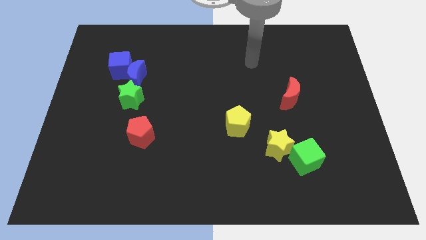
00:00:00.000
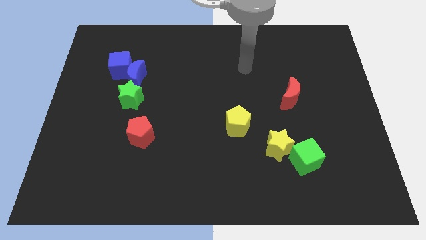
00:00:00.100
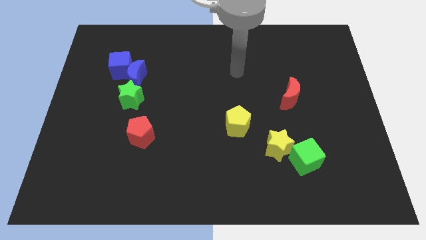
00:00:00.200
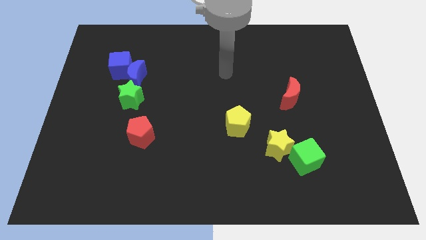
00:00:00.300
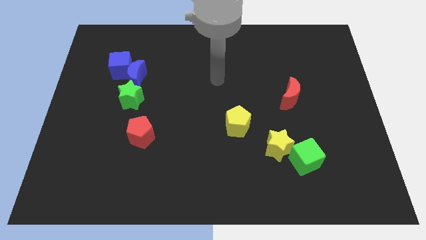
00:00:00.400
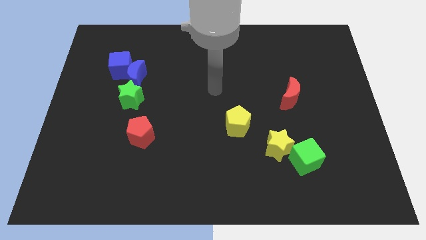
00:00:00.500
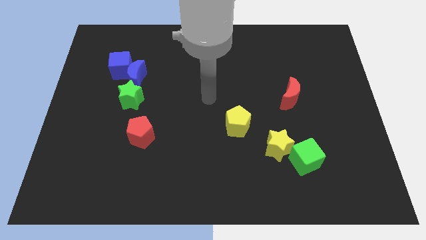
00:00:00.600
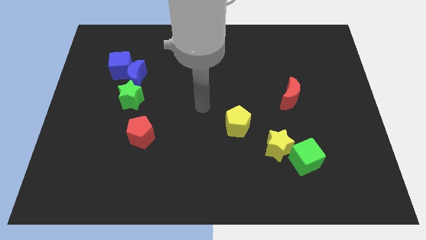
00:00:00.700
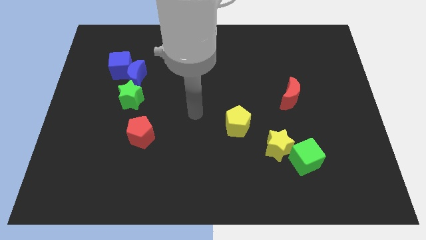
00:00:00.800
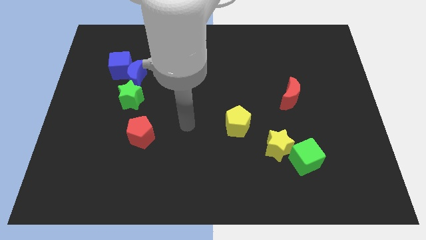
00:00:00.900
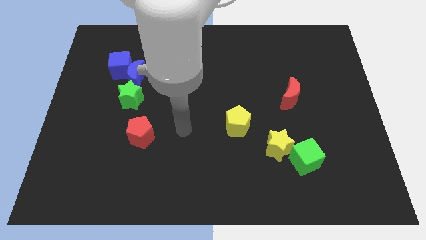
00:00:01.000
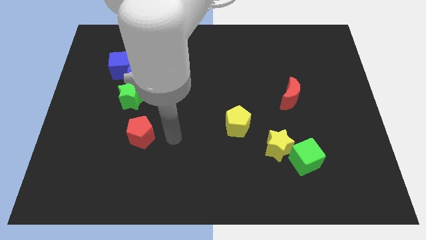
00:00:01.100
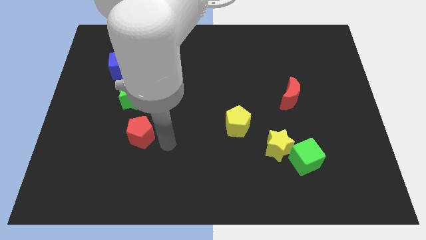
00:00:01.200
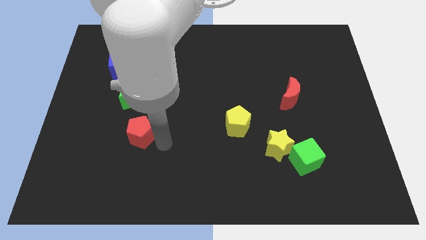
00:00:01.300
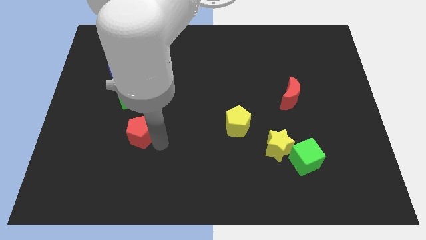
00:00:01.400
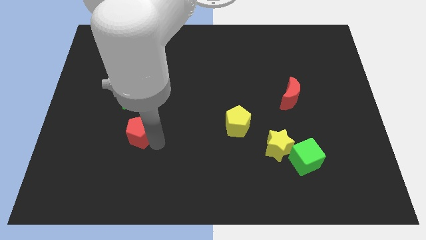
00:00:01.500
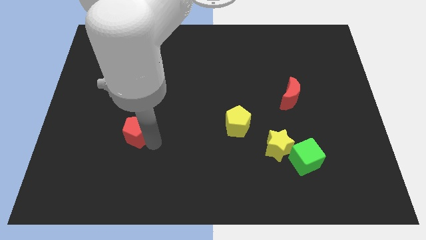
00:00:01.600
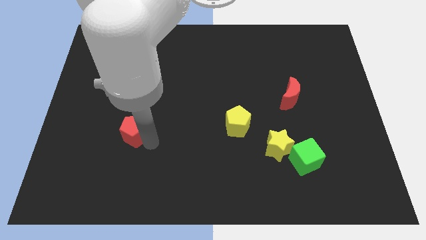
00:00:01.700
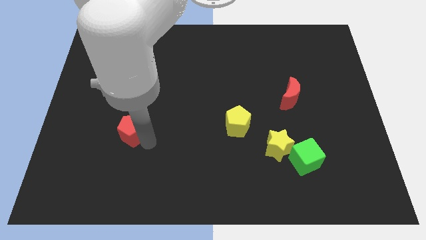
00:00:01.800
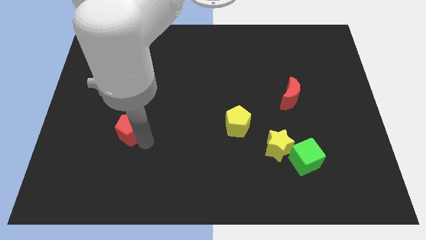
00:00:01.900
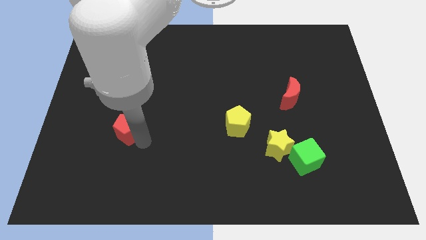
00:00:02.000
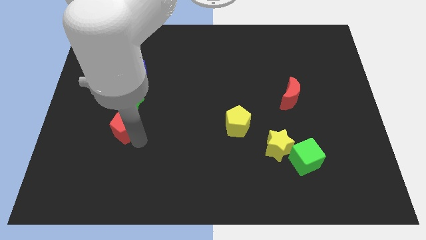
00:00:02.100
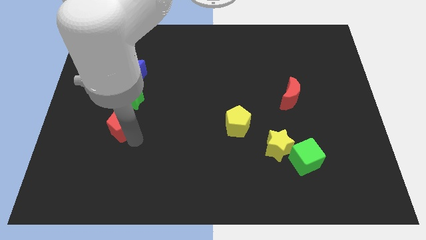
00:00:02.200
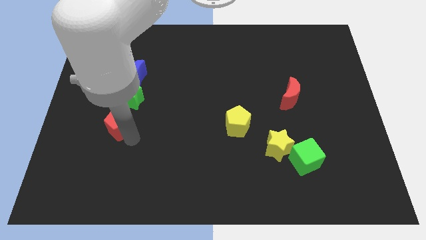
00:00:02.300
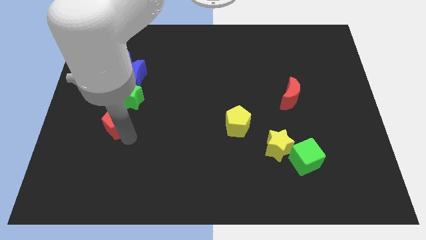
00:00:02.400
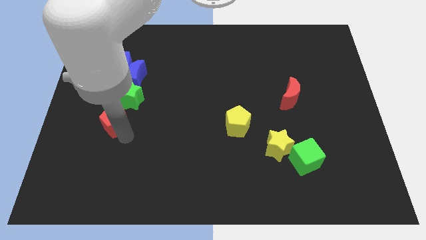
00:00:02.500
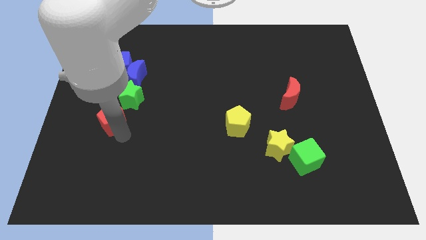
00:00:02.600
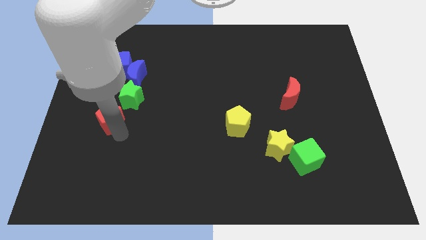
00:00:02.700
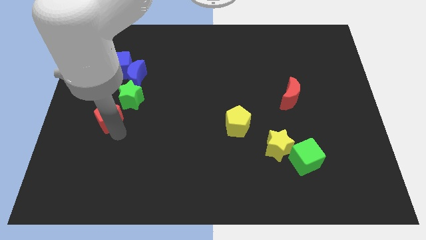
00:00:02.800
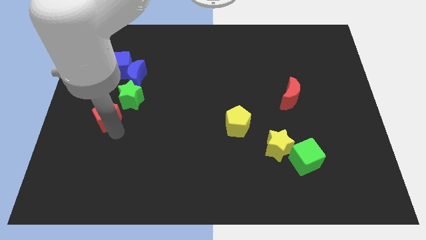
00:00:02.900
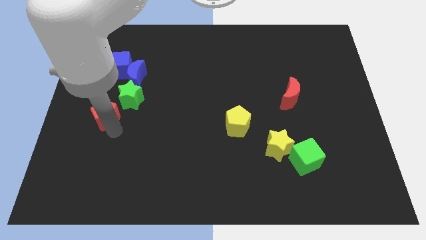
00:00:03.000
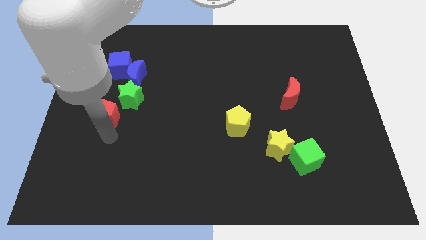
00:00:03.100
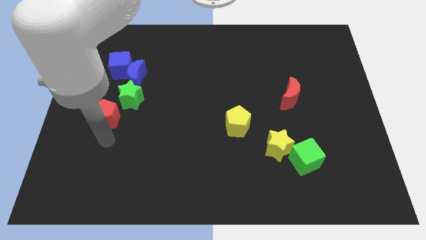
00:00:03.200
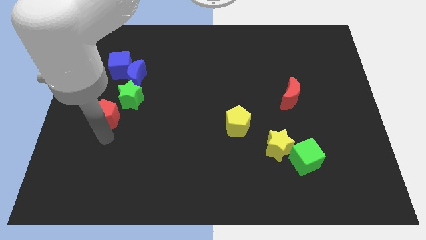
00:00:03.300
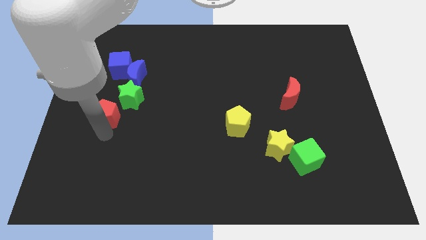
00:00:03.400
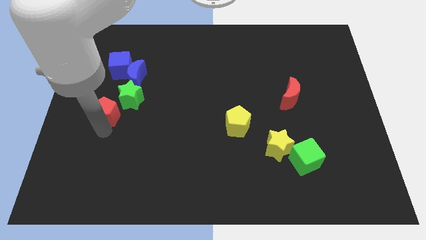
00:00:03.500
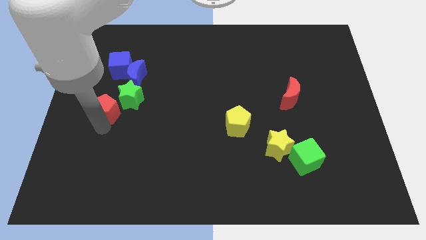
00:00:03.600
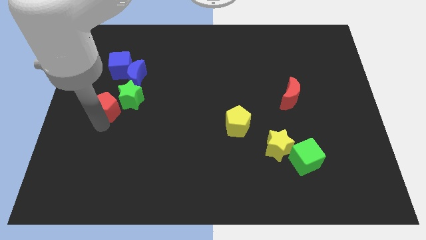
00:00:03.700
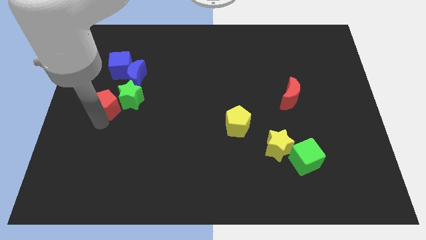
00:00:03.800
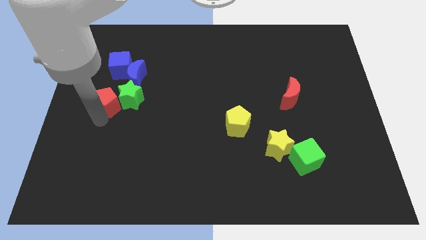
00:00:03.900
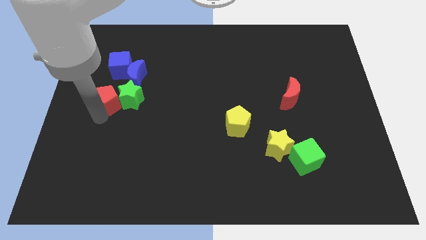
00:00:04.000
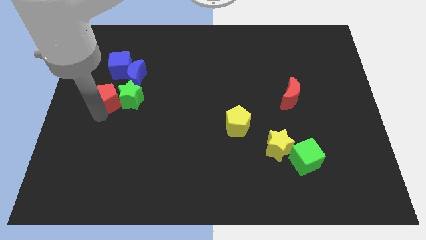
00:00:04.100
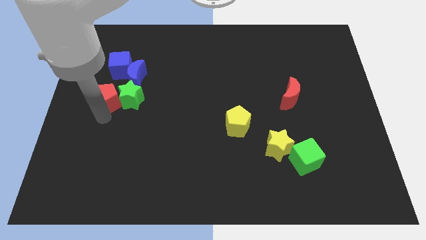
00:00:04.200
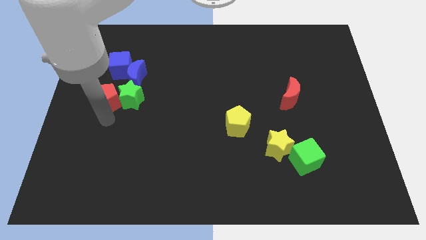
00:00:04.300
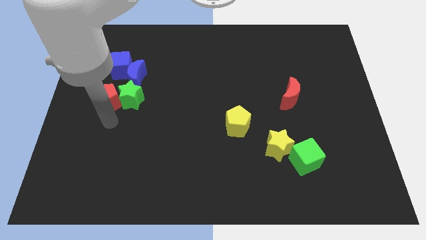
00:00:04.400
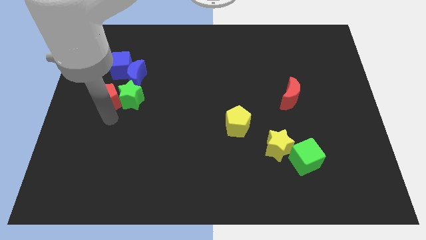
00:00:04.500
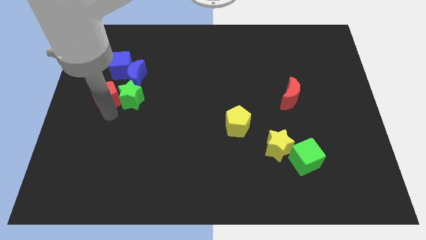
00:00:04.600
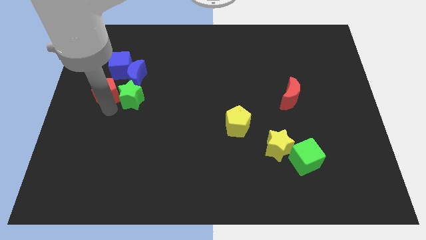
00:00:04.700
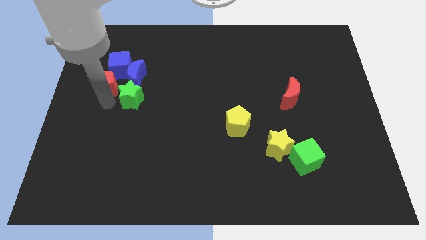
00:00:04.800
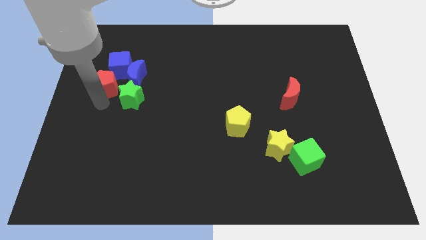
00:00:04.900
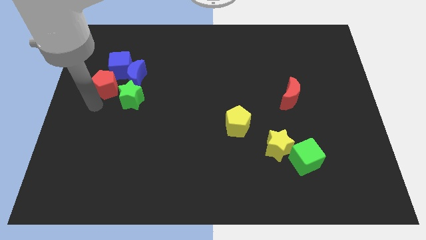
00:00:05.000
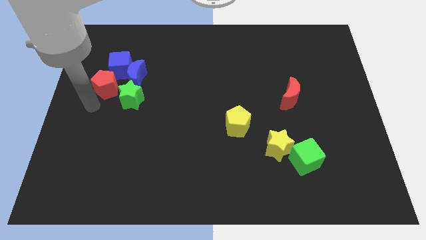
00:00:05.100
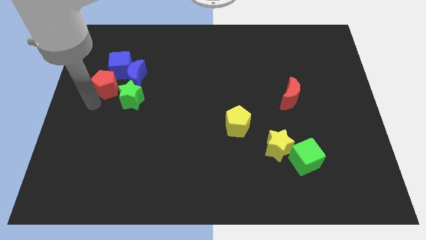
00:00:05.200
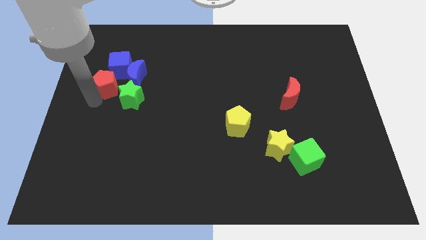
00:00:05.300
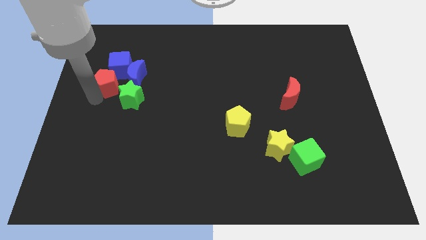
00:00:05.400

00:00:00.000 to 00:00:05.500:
move the red pentagon to the blue cube

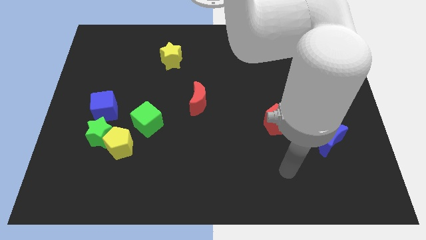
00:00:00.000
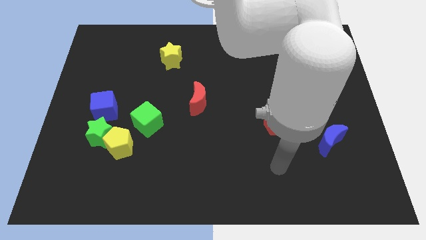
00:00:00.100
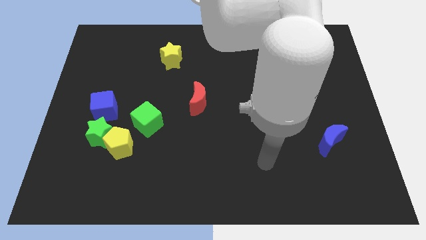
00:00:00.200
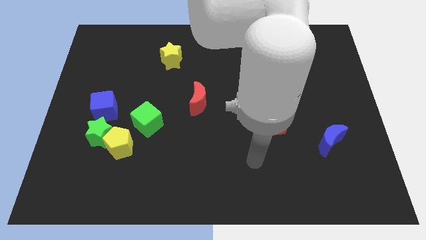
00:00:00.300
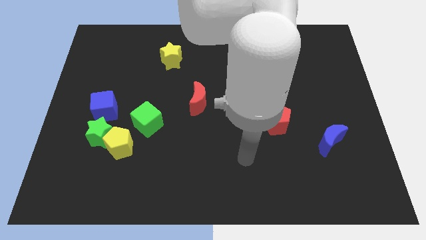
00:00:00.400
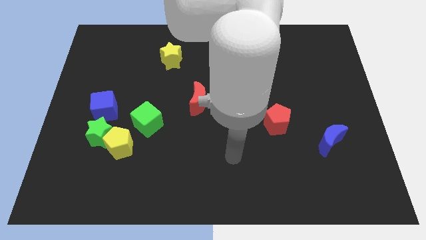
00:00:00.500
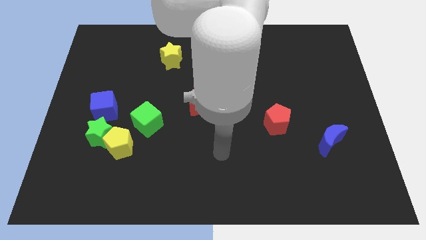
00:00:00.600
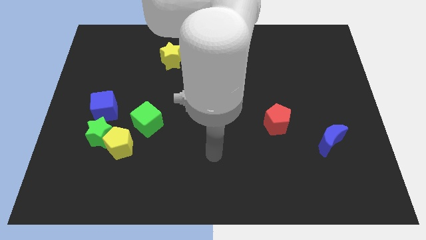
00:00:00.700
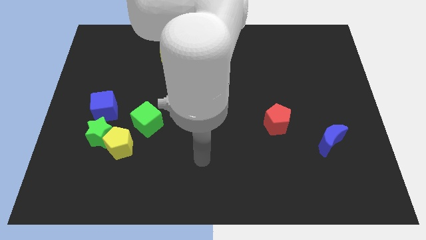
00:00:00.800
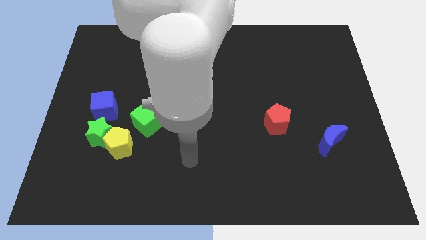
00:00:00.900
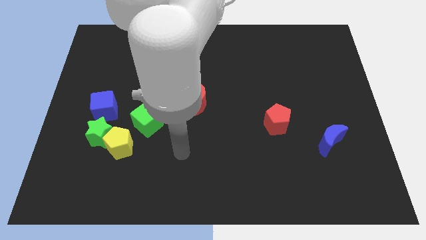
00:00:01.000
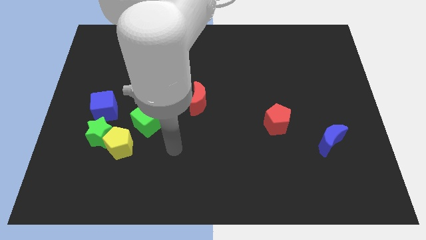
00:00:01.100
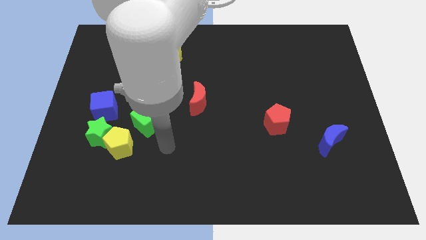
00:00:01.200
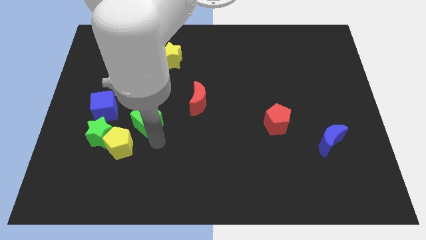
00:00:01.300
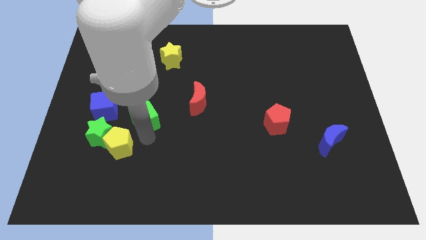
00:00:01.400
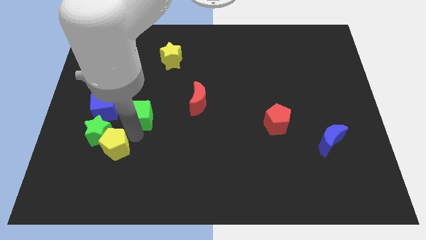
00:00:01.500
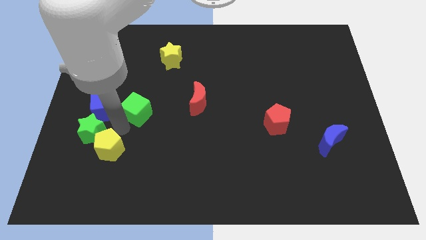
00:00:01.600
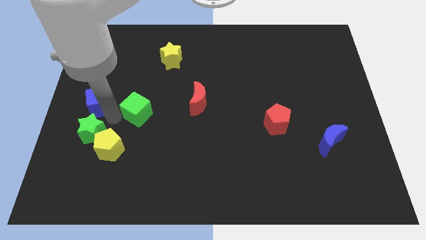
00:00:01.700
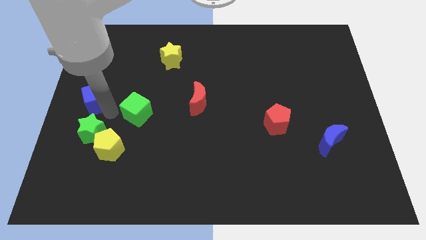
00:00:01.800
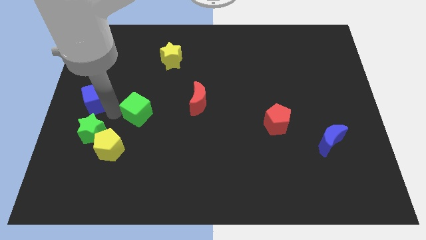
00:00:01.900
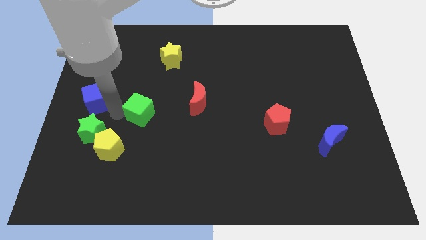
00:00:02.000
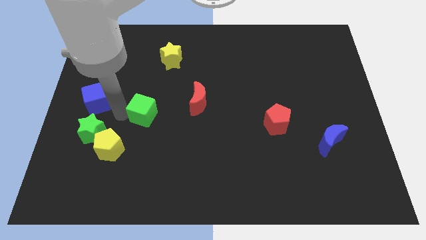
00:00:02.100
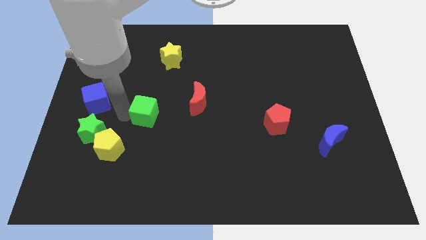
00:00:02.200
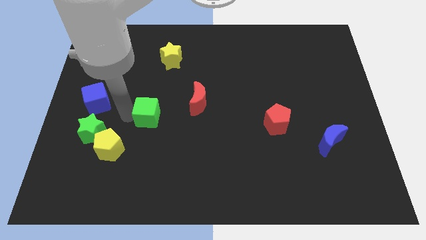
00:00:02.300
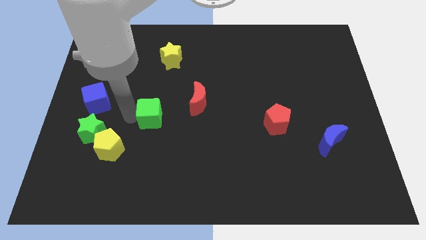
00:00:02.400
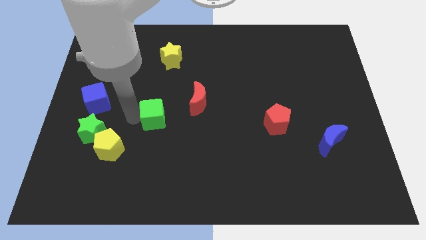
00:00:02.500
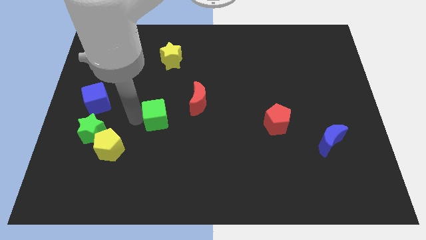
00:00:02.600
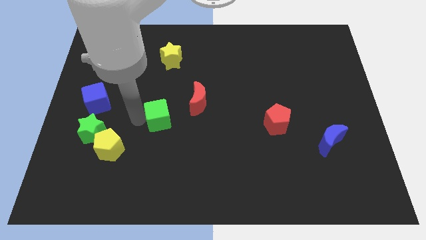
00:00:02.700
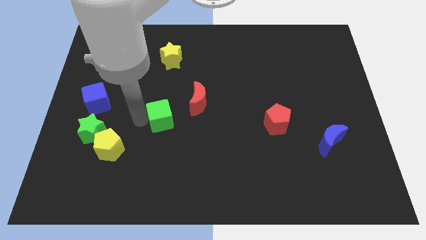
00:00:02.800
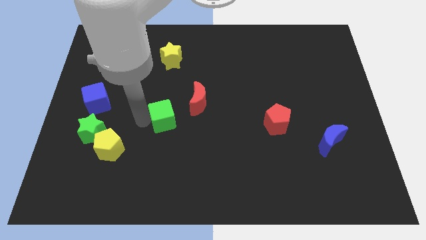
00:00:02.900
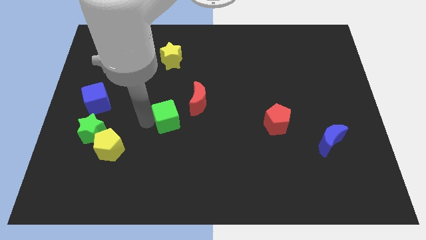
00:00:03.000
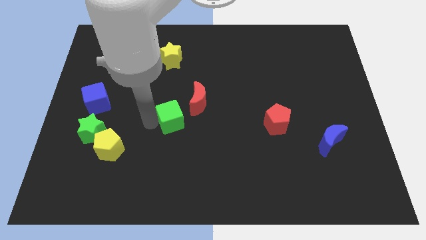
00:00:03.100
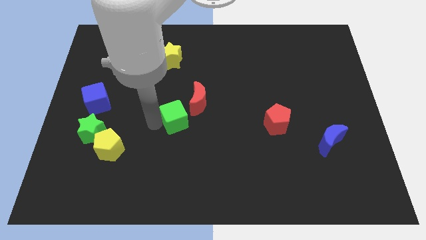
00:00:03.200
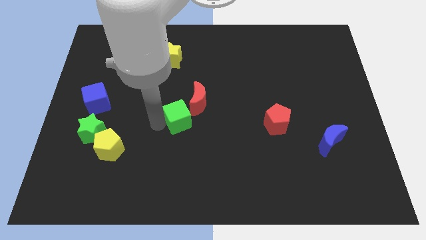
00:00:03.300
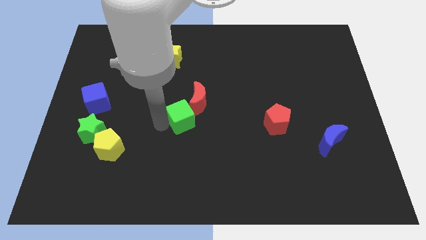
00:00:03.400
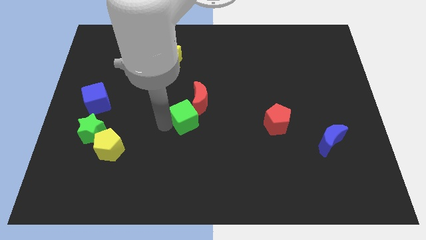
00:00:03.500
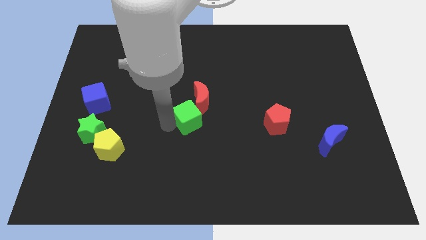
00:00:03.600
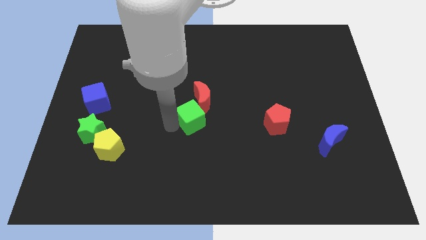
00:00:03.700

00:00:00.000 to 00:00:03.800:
push the green cube next to the red moon
